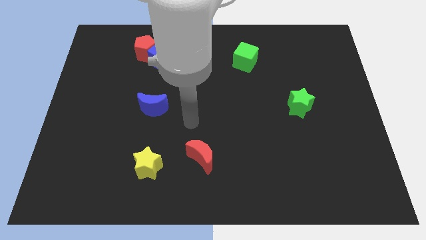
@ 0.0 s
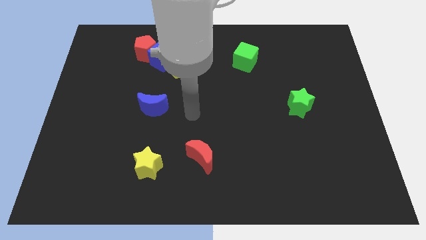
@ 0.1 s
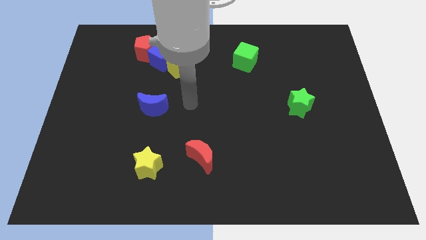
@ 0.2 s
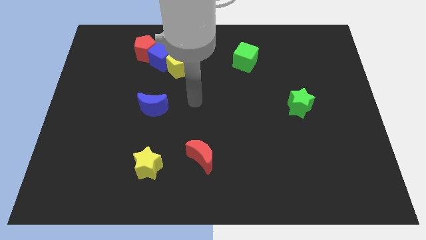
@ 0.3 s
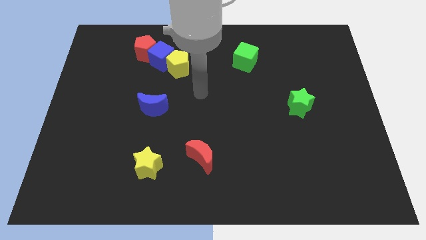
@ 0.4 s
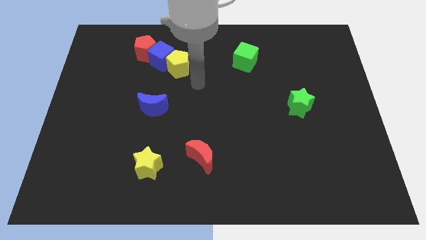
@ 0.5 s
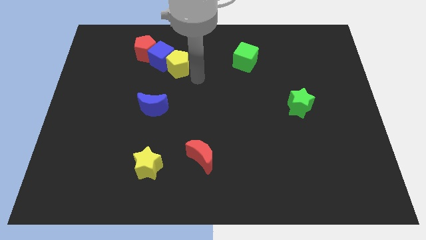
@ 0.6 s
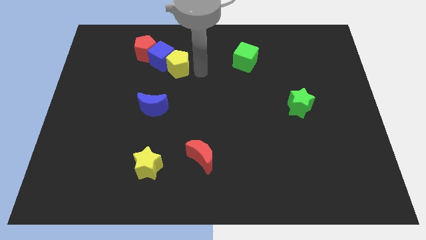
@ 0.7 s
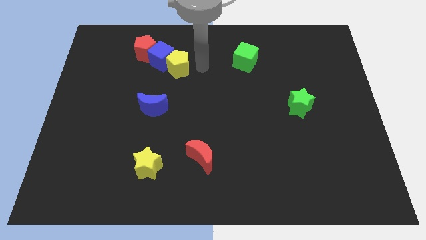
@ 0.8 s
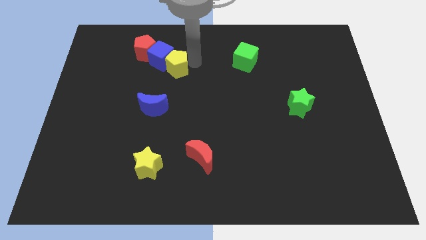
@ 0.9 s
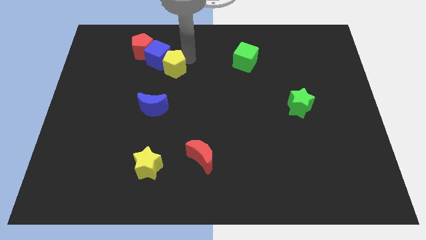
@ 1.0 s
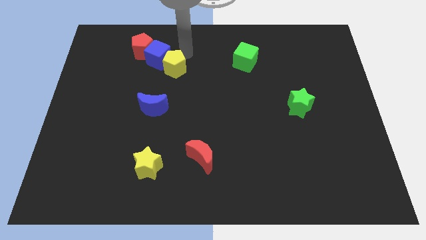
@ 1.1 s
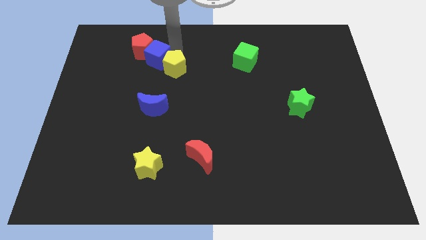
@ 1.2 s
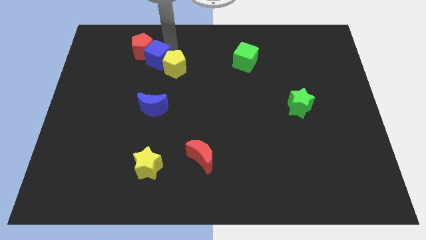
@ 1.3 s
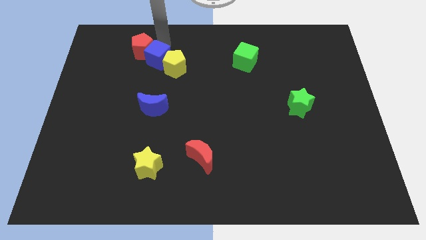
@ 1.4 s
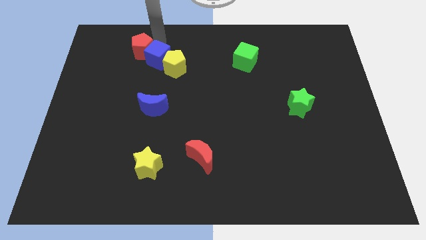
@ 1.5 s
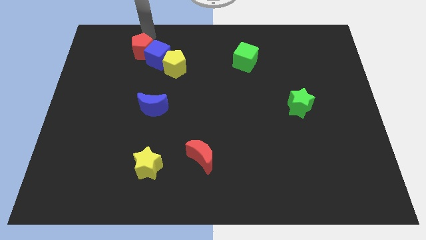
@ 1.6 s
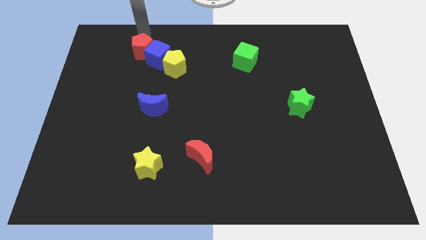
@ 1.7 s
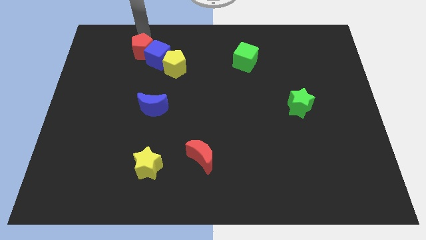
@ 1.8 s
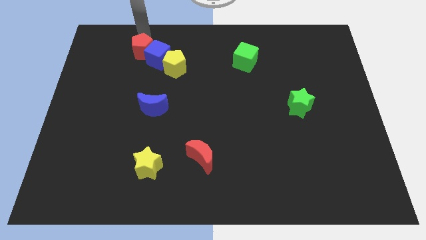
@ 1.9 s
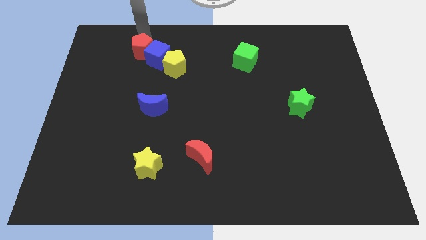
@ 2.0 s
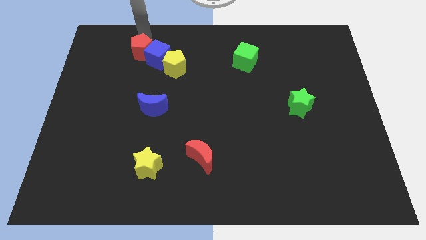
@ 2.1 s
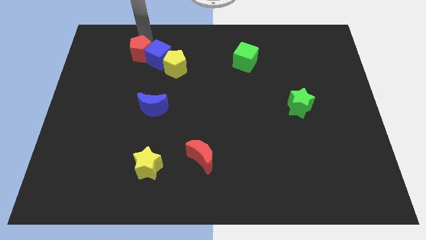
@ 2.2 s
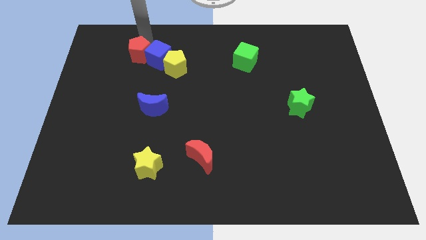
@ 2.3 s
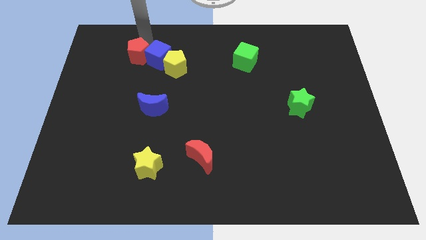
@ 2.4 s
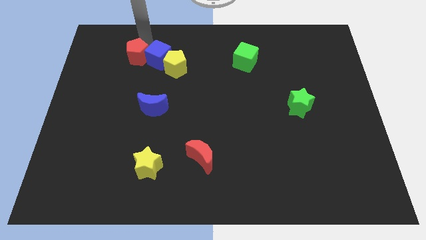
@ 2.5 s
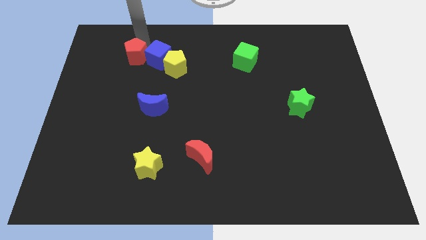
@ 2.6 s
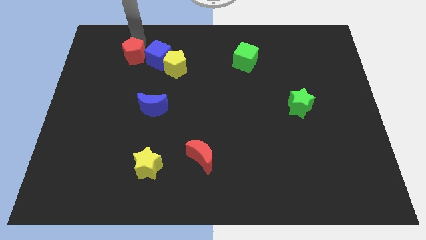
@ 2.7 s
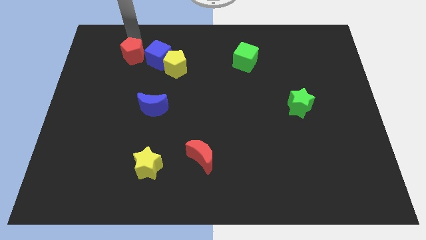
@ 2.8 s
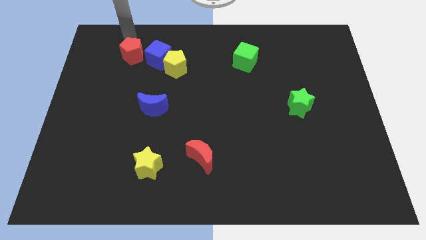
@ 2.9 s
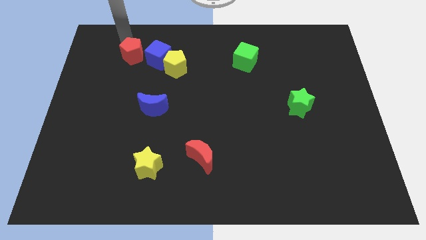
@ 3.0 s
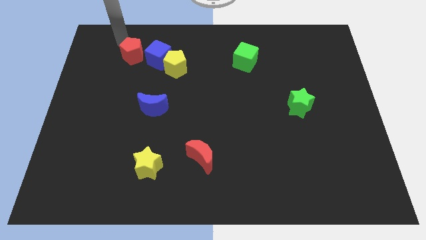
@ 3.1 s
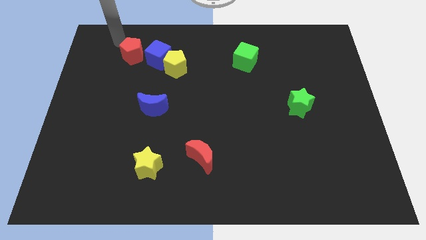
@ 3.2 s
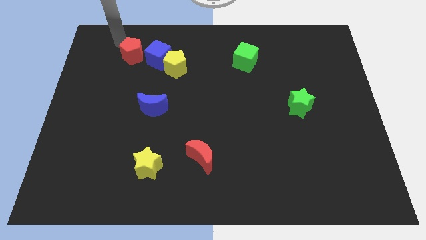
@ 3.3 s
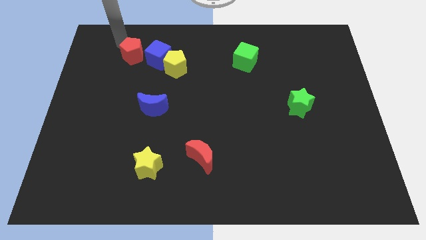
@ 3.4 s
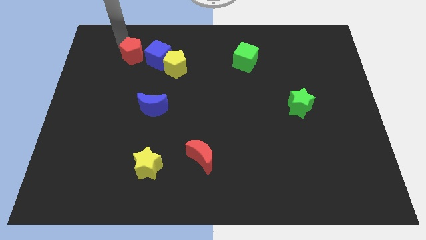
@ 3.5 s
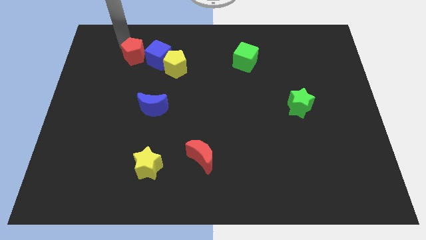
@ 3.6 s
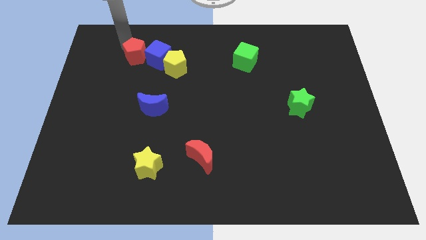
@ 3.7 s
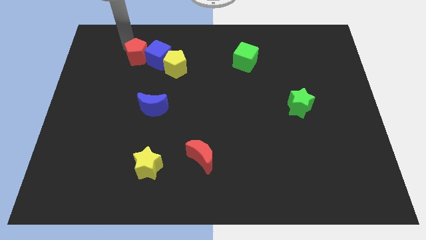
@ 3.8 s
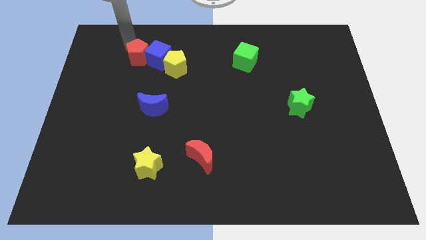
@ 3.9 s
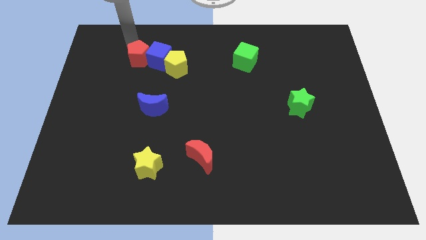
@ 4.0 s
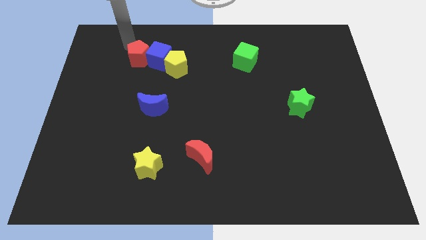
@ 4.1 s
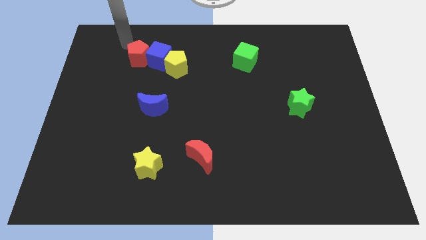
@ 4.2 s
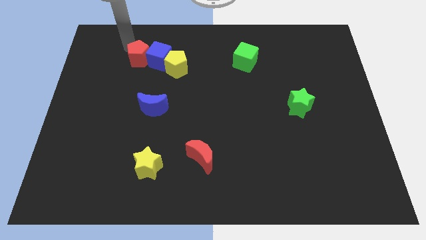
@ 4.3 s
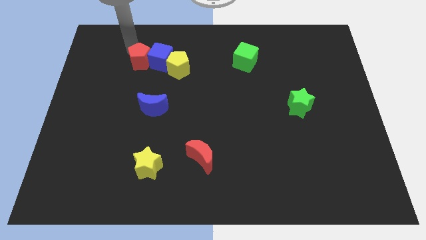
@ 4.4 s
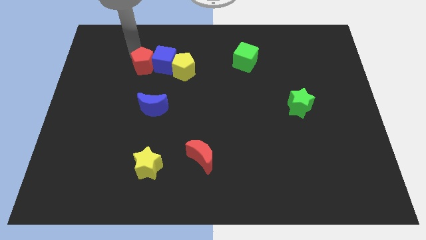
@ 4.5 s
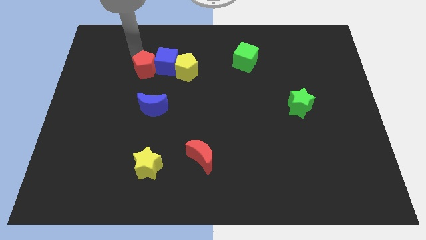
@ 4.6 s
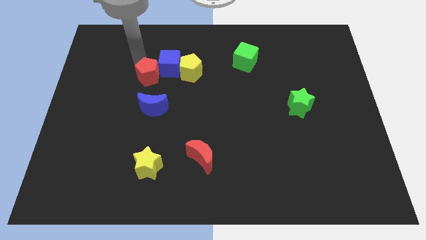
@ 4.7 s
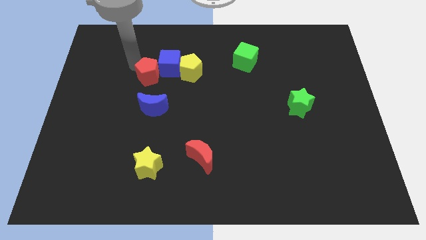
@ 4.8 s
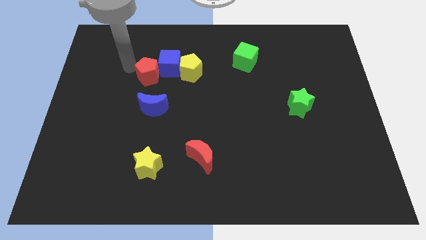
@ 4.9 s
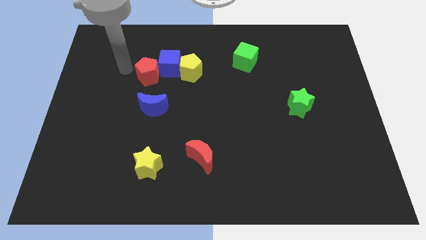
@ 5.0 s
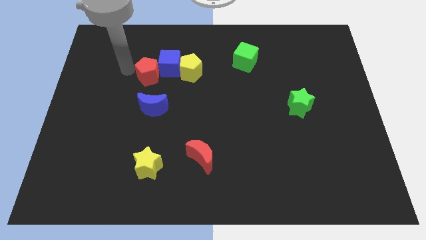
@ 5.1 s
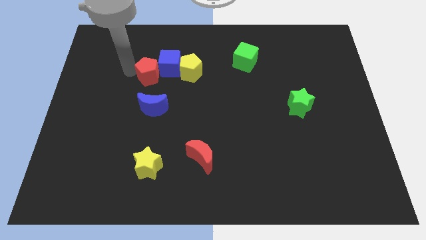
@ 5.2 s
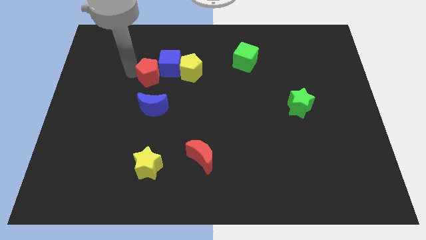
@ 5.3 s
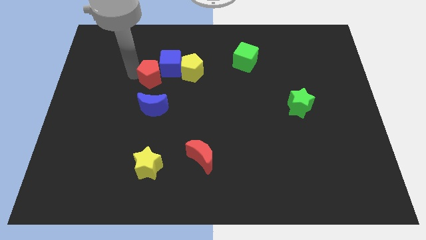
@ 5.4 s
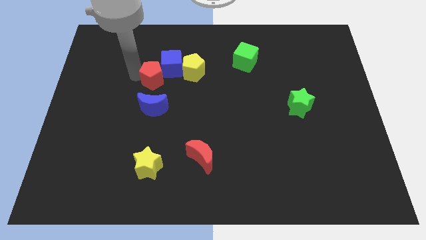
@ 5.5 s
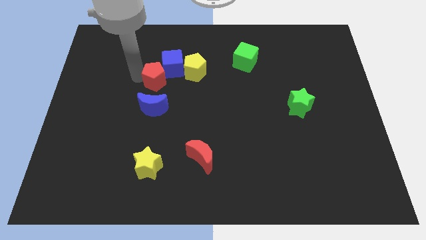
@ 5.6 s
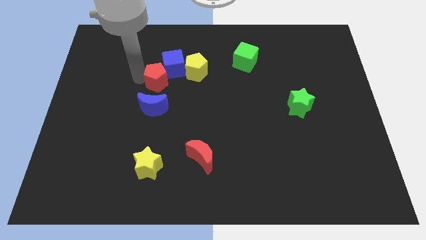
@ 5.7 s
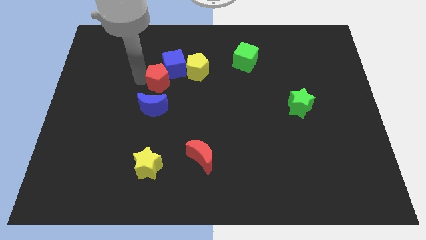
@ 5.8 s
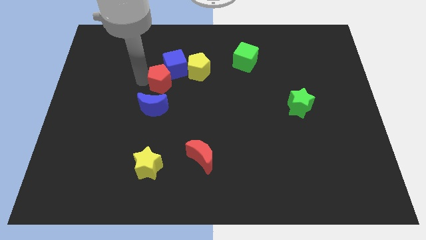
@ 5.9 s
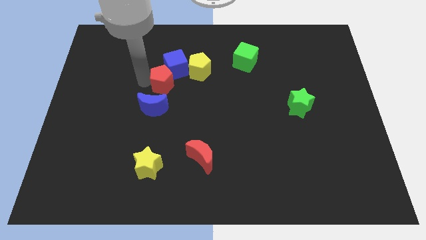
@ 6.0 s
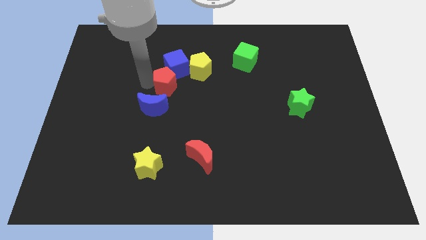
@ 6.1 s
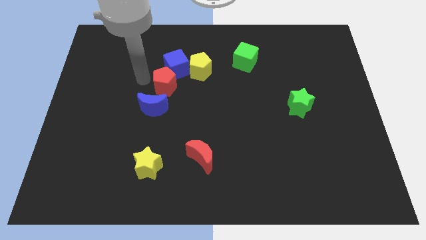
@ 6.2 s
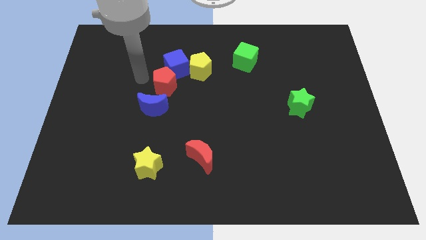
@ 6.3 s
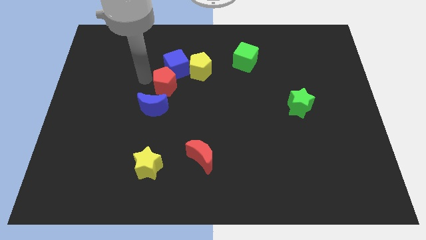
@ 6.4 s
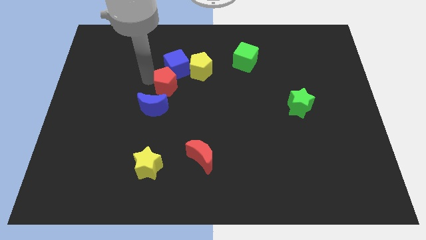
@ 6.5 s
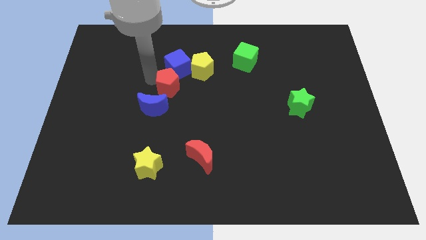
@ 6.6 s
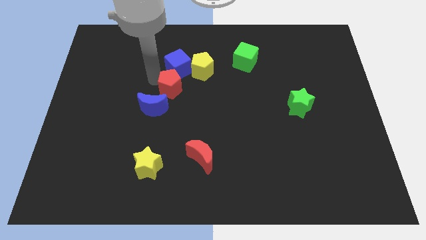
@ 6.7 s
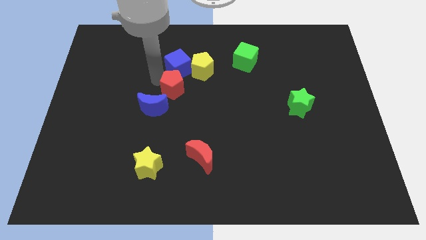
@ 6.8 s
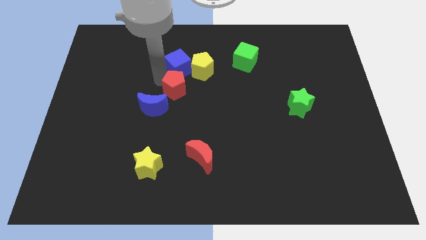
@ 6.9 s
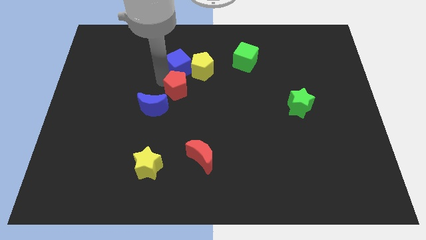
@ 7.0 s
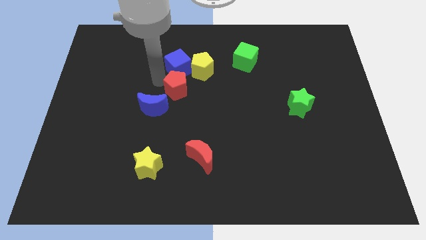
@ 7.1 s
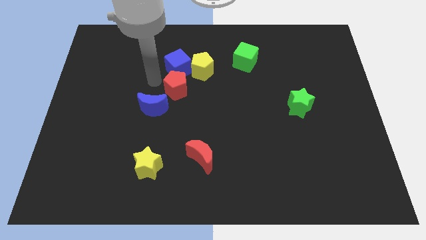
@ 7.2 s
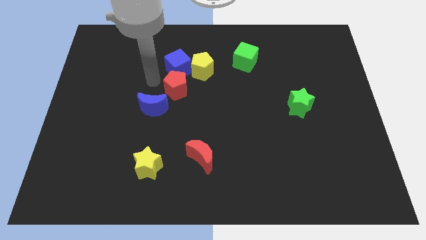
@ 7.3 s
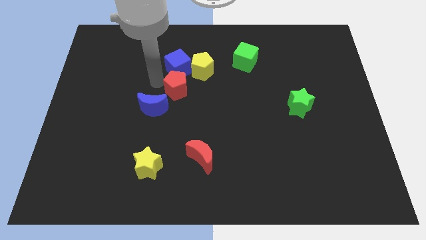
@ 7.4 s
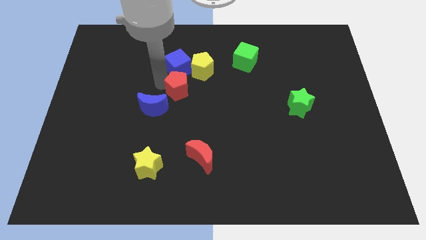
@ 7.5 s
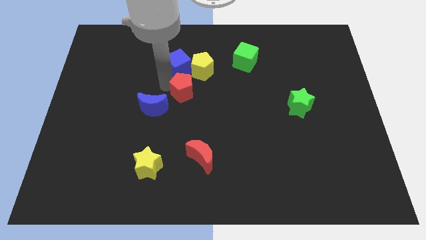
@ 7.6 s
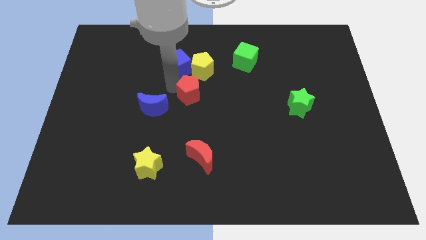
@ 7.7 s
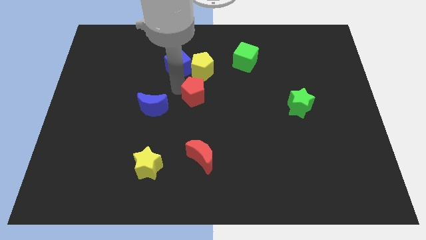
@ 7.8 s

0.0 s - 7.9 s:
push the red pentagon diagonally downwards and to the right

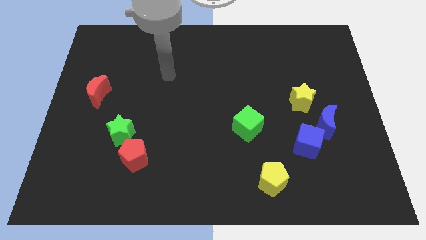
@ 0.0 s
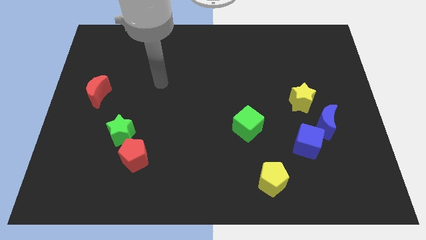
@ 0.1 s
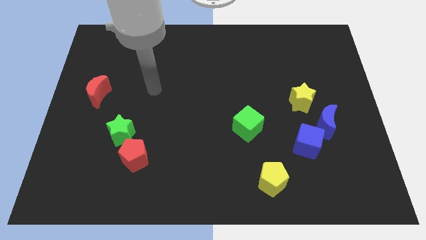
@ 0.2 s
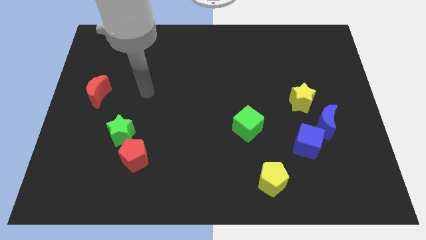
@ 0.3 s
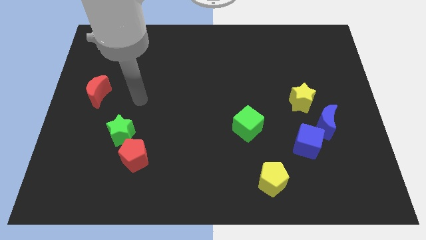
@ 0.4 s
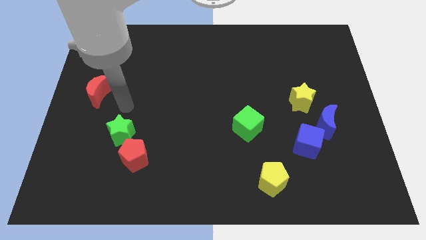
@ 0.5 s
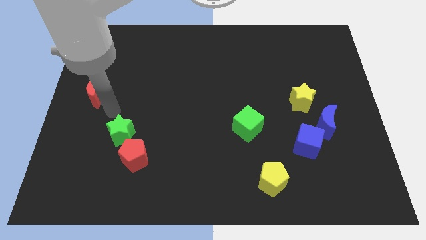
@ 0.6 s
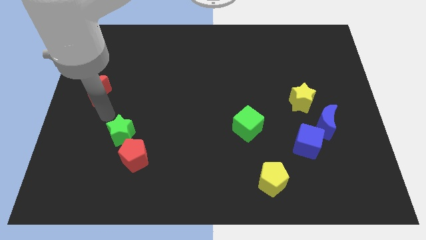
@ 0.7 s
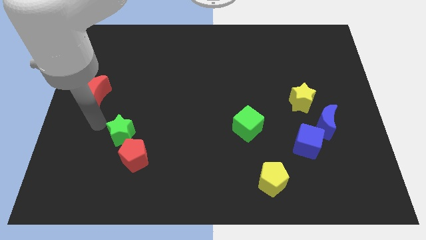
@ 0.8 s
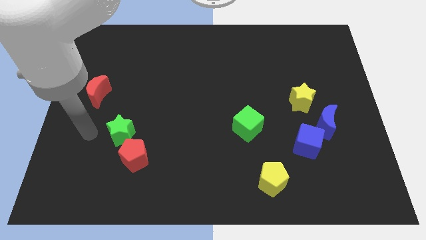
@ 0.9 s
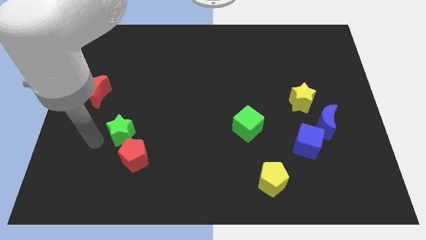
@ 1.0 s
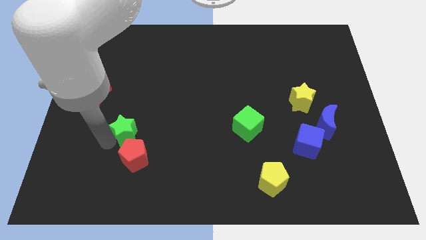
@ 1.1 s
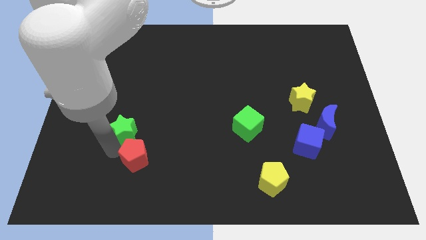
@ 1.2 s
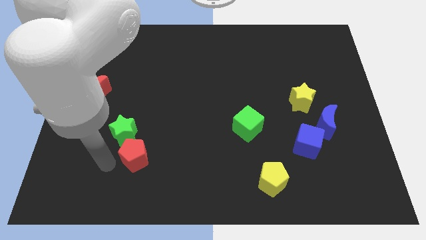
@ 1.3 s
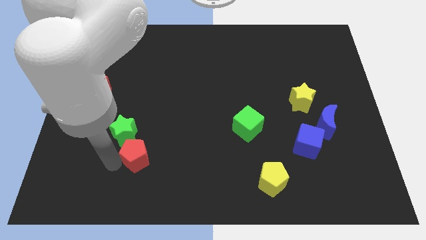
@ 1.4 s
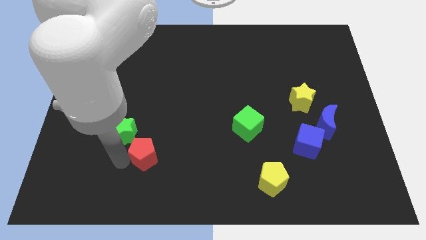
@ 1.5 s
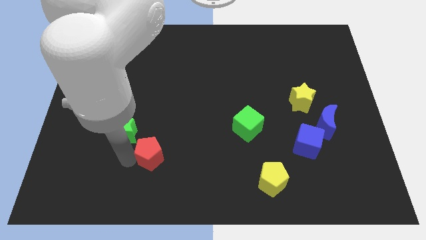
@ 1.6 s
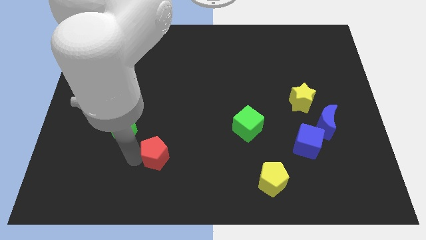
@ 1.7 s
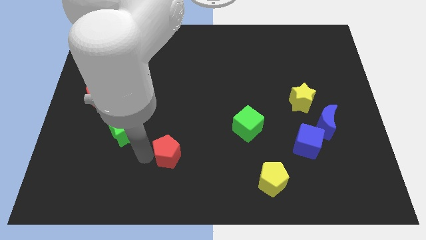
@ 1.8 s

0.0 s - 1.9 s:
move the red pentagon to the right somewhat
